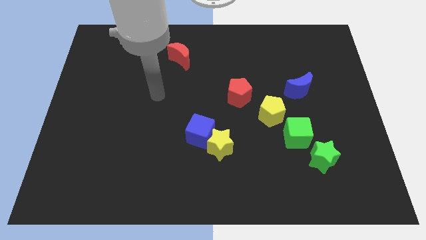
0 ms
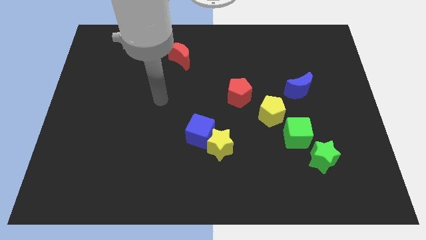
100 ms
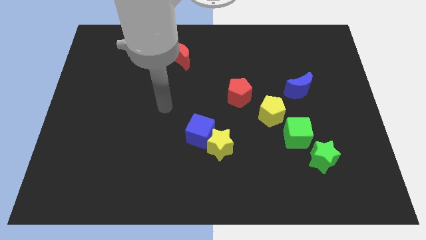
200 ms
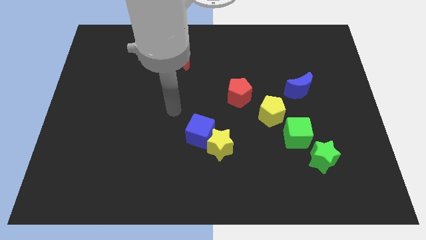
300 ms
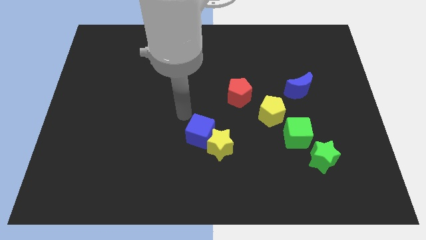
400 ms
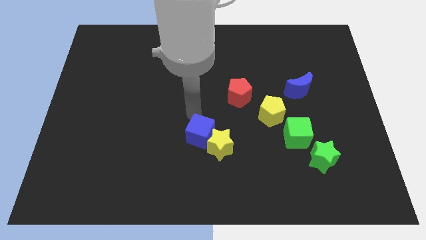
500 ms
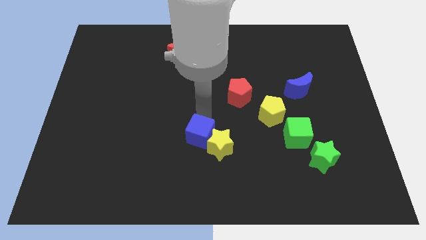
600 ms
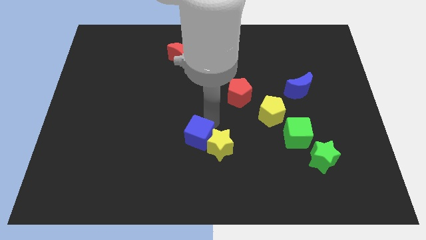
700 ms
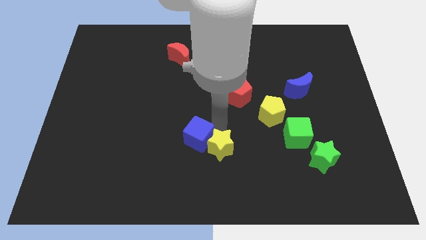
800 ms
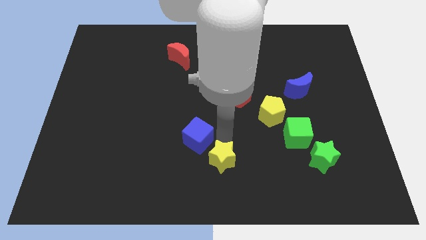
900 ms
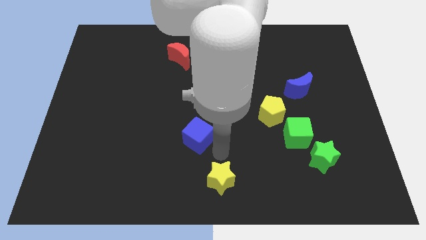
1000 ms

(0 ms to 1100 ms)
pull the blue cube apart from the yellow star

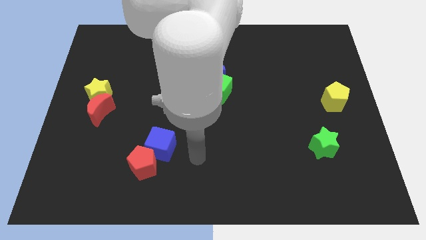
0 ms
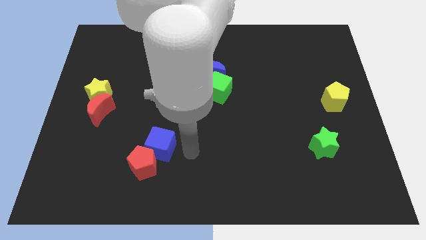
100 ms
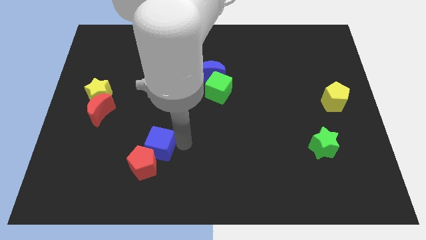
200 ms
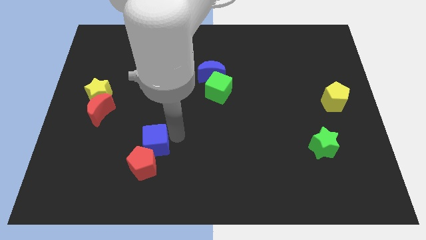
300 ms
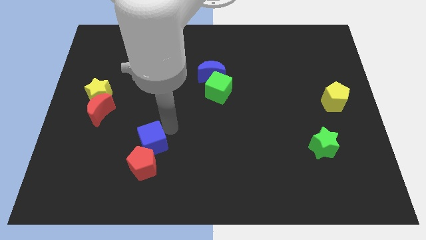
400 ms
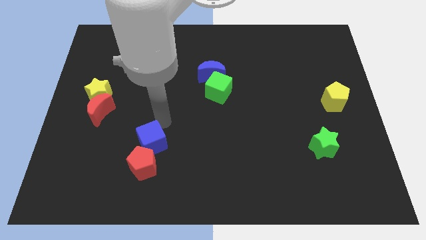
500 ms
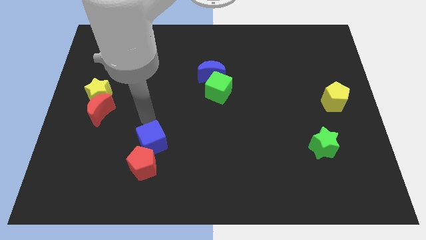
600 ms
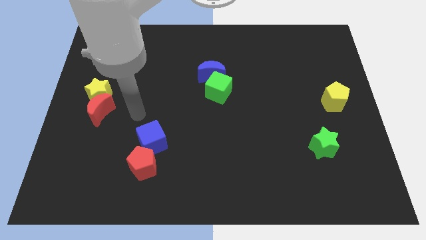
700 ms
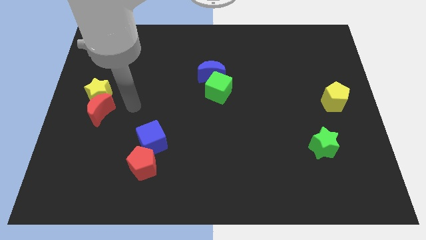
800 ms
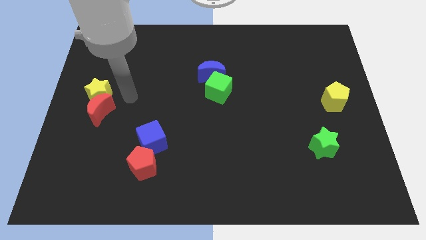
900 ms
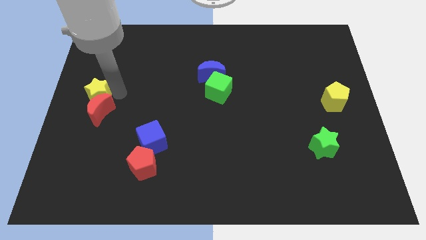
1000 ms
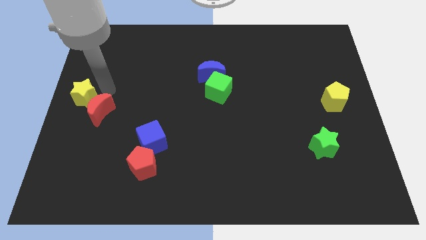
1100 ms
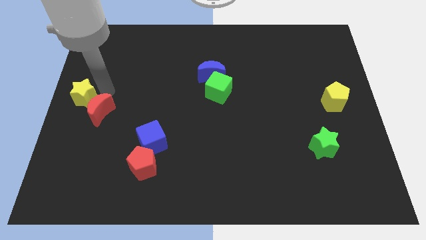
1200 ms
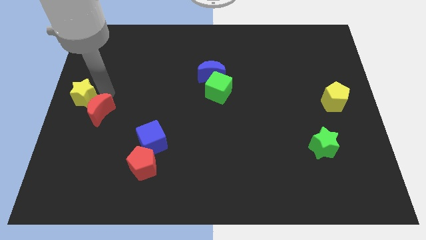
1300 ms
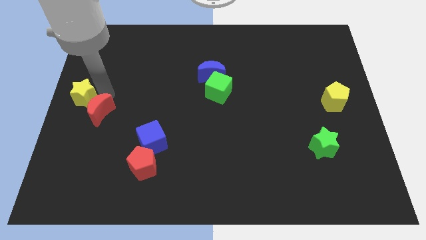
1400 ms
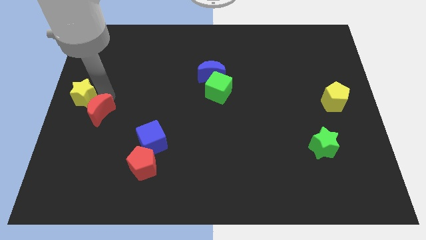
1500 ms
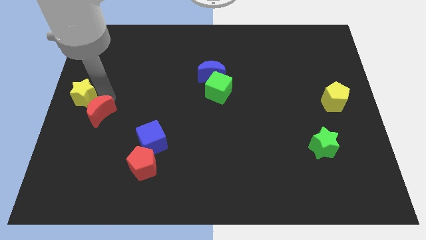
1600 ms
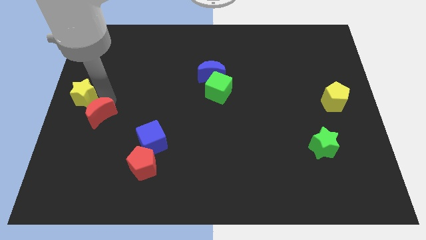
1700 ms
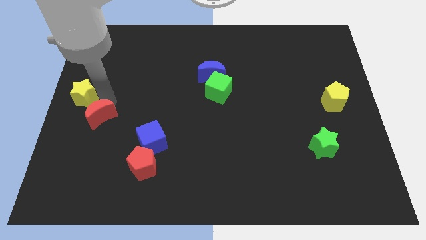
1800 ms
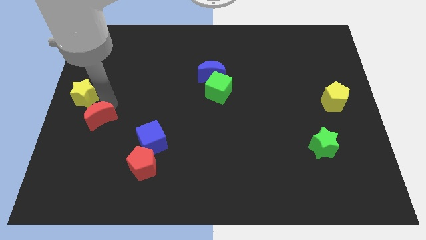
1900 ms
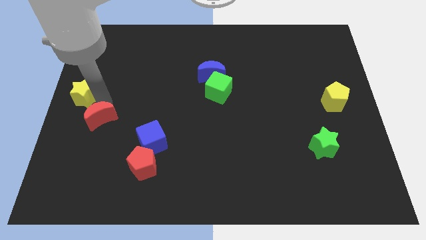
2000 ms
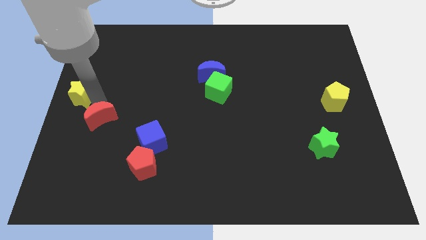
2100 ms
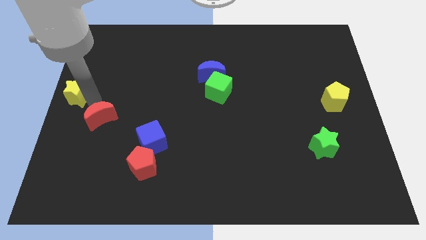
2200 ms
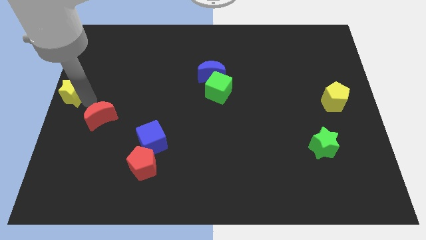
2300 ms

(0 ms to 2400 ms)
separate the red moon from the yellow star

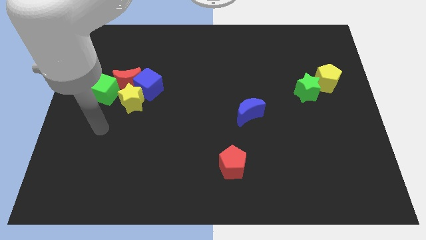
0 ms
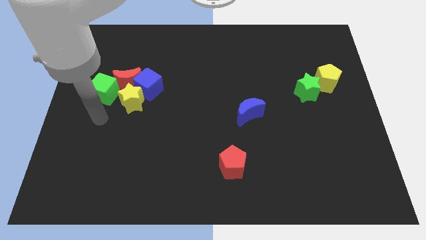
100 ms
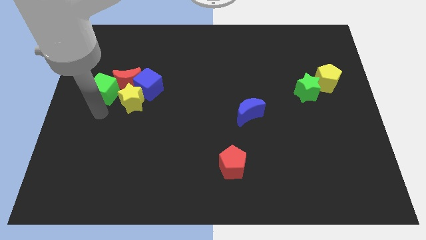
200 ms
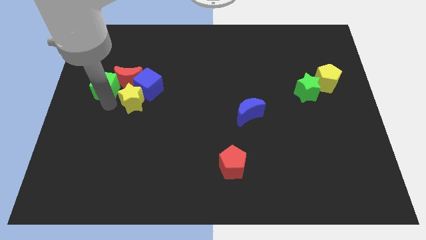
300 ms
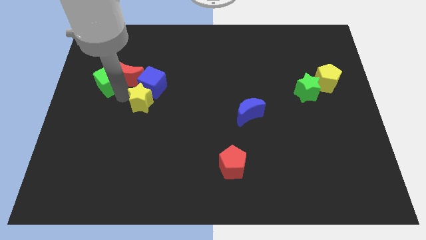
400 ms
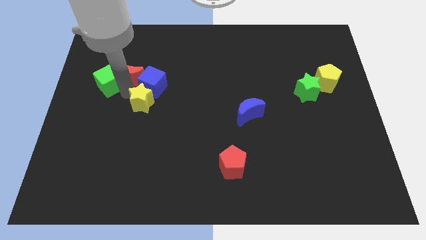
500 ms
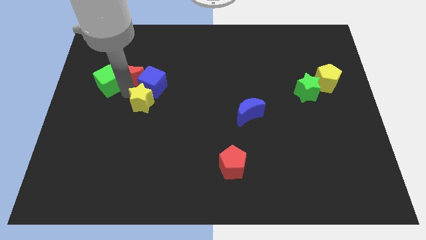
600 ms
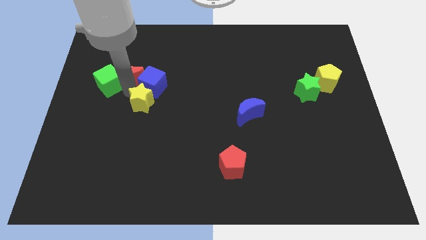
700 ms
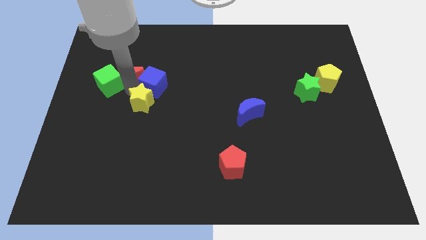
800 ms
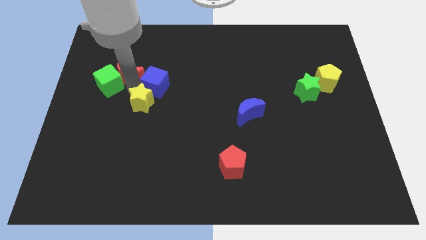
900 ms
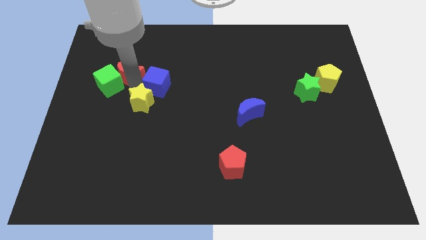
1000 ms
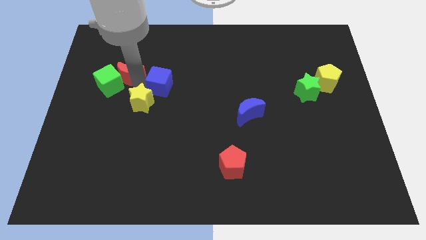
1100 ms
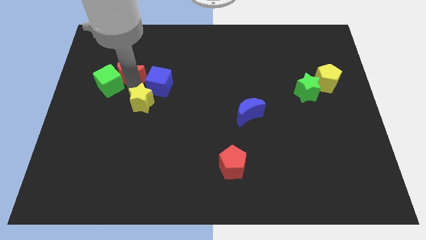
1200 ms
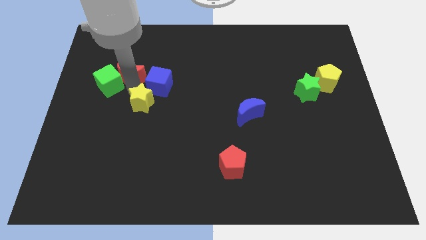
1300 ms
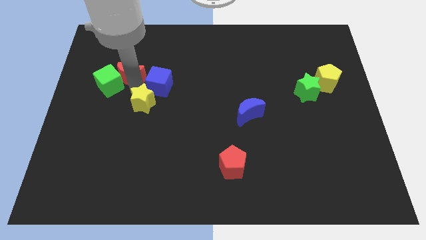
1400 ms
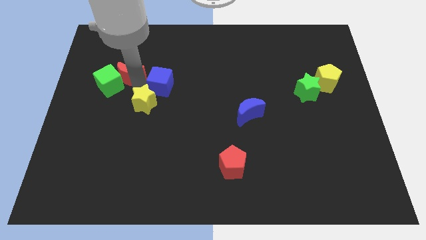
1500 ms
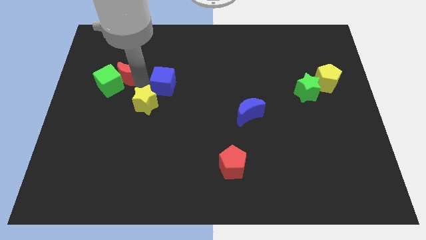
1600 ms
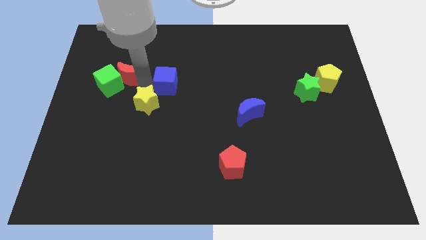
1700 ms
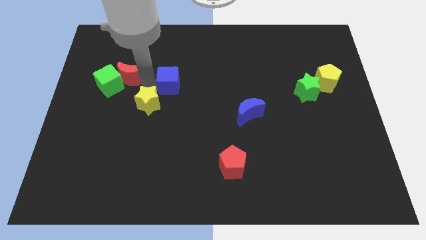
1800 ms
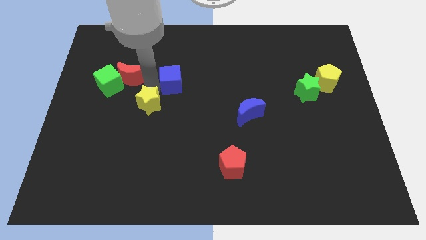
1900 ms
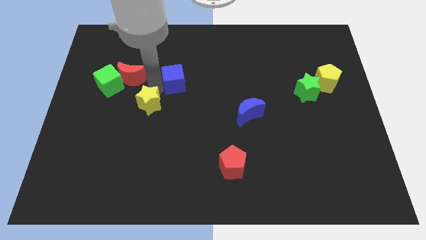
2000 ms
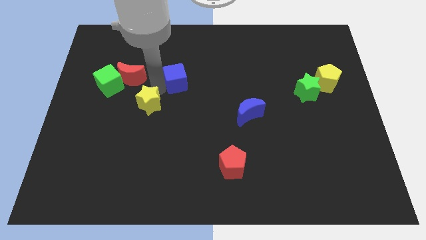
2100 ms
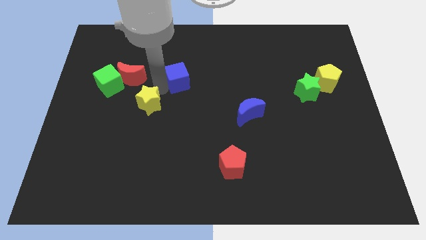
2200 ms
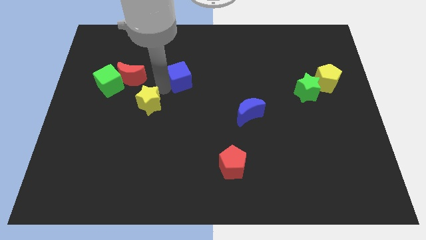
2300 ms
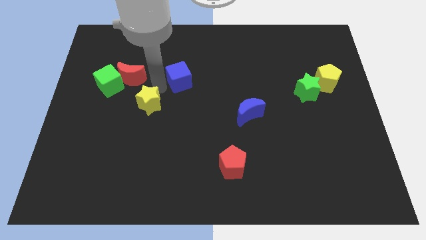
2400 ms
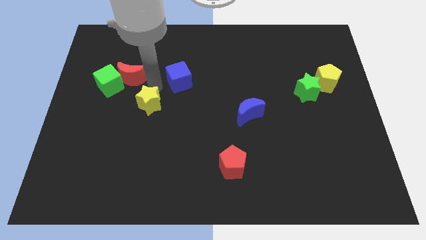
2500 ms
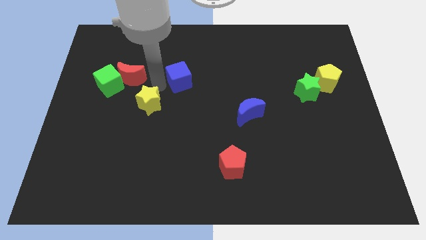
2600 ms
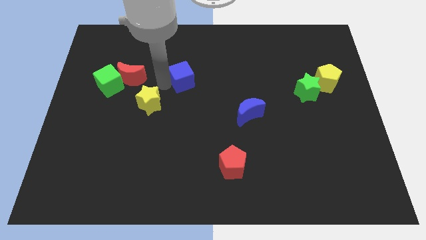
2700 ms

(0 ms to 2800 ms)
pull the blue cube apart from the red moon and yellow star

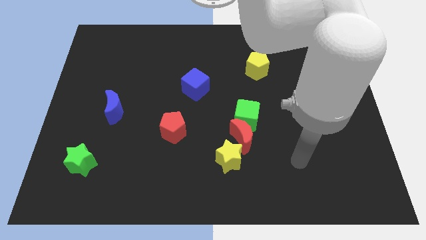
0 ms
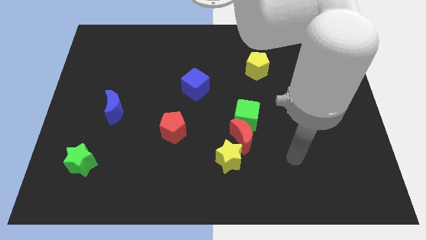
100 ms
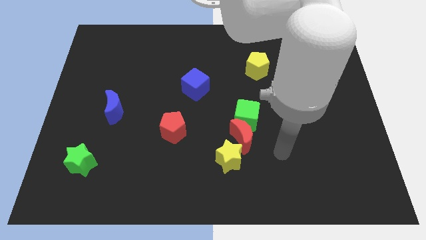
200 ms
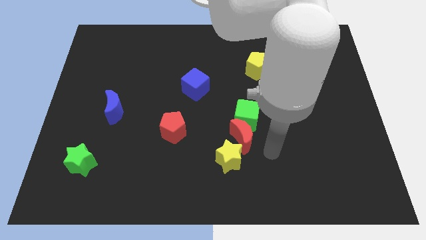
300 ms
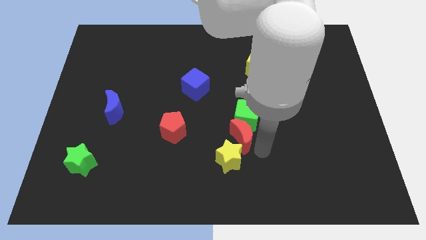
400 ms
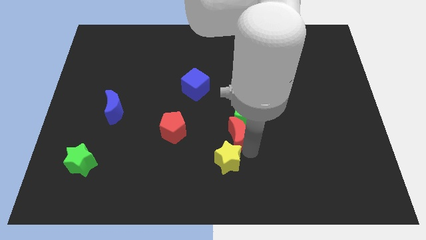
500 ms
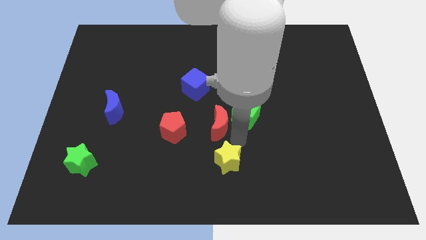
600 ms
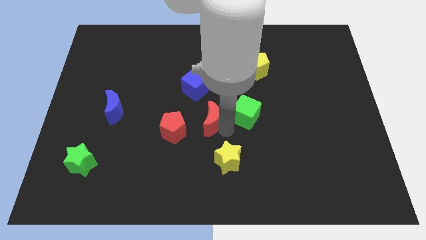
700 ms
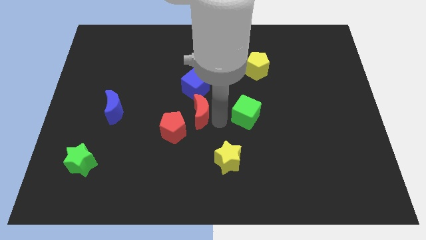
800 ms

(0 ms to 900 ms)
move the green cube away from the red moon

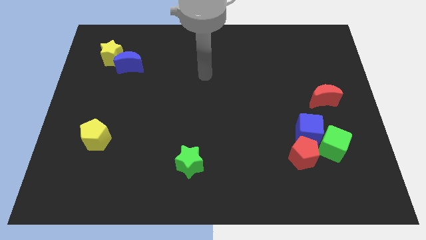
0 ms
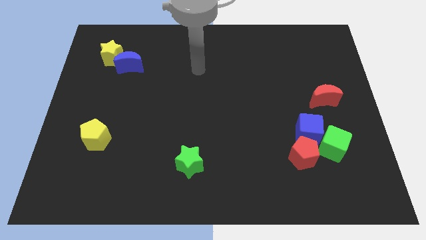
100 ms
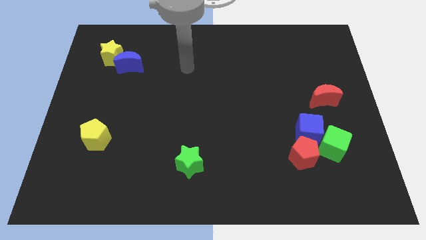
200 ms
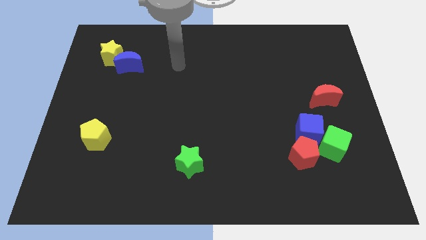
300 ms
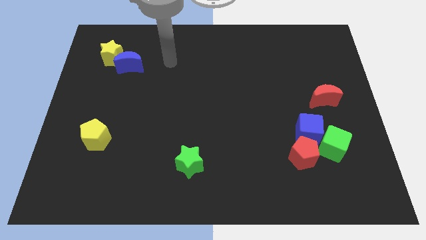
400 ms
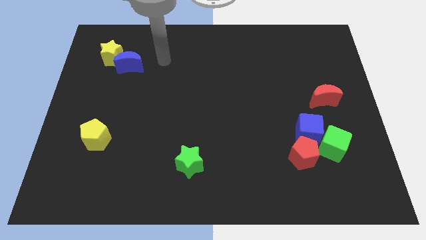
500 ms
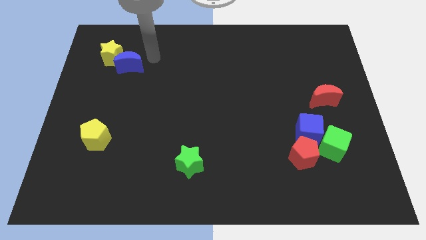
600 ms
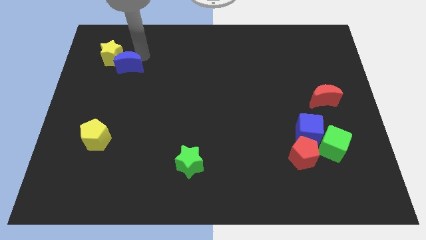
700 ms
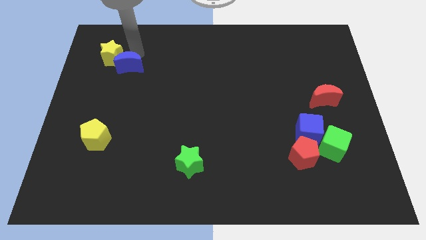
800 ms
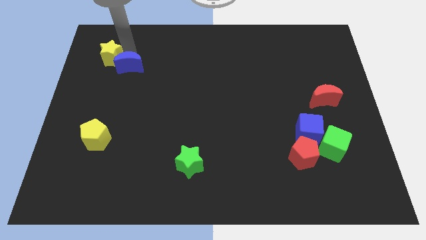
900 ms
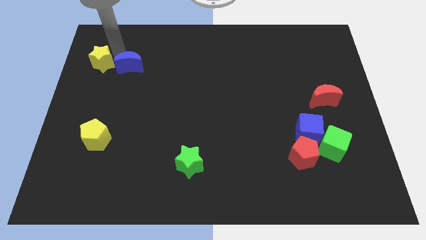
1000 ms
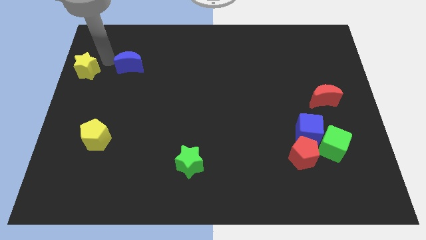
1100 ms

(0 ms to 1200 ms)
pull the blue moon apart from the yellow star

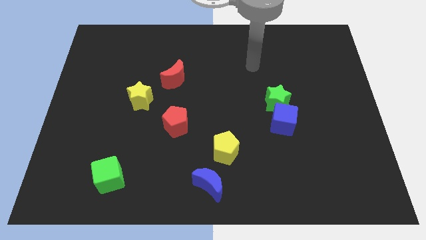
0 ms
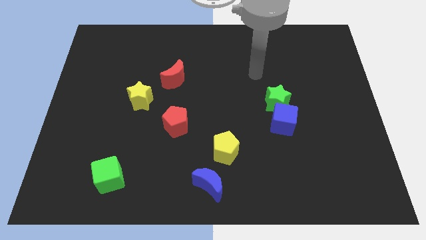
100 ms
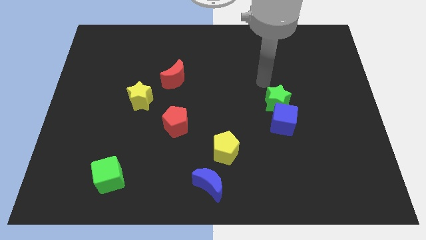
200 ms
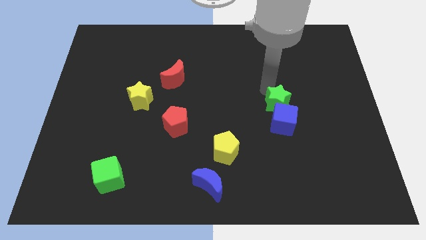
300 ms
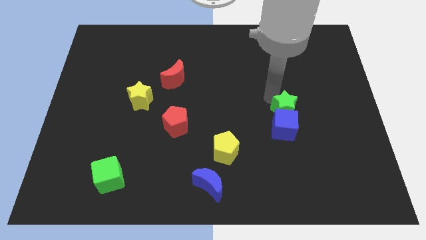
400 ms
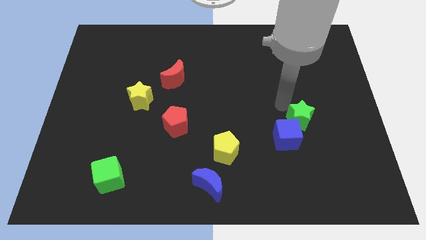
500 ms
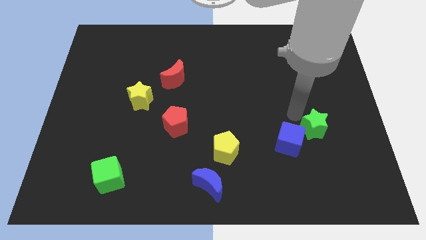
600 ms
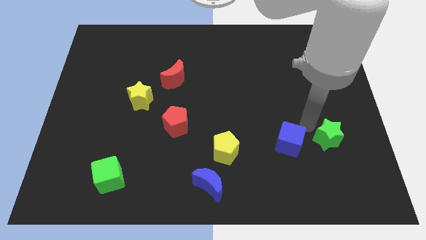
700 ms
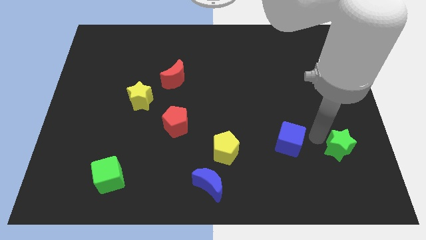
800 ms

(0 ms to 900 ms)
separate the blue cube from the green star
